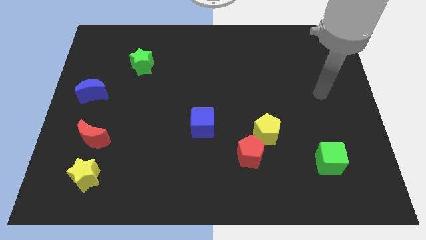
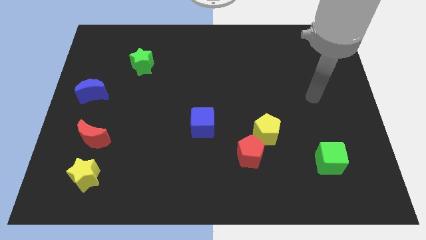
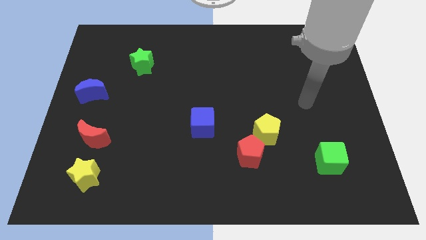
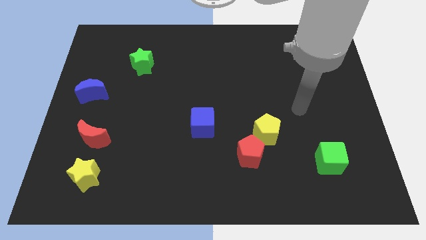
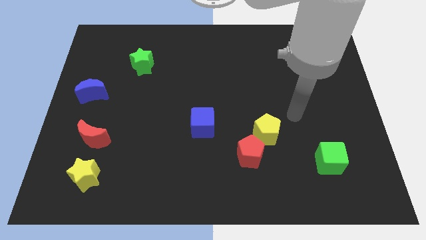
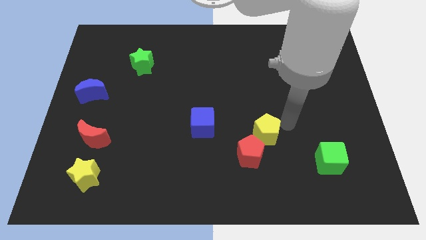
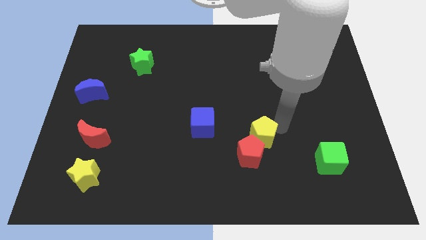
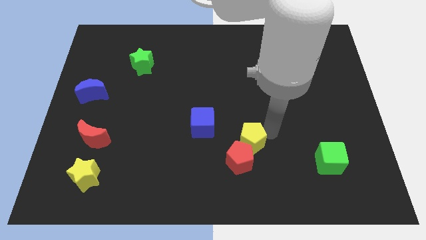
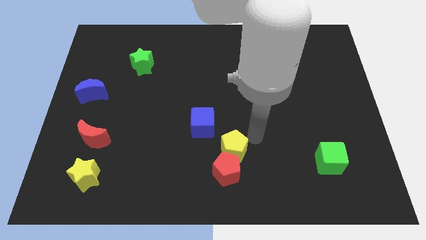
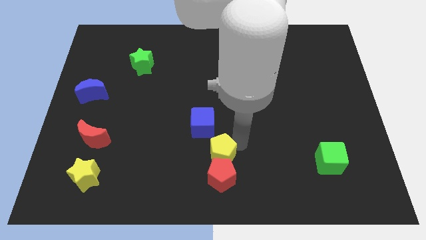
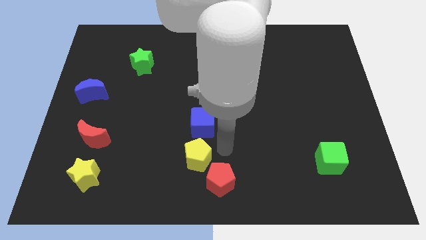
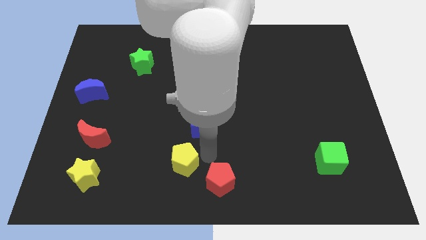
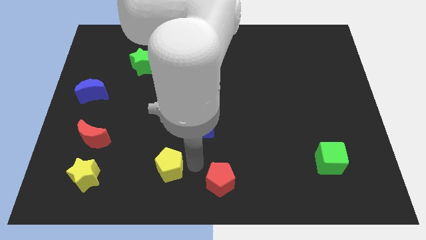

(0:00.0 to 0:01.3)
pull the red pentagon apart from the yellow pentagon

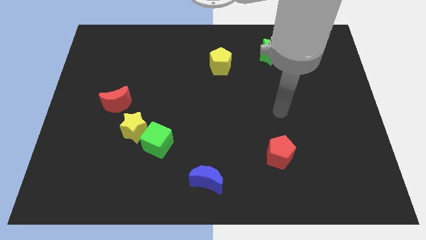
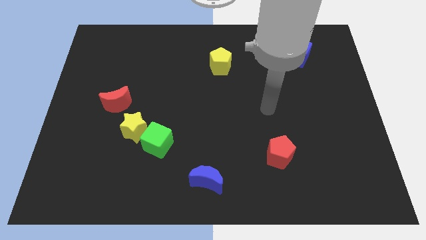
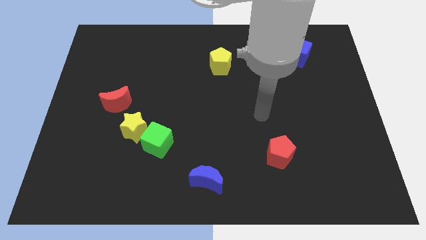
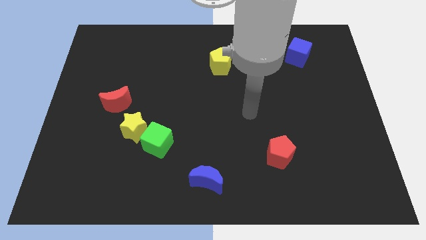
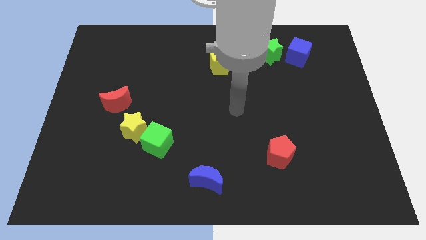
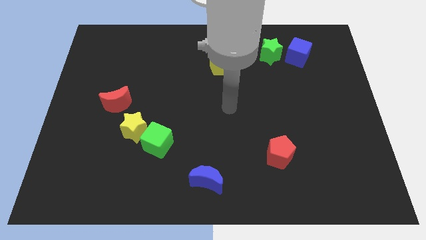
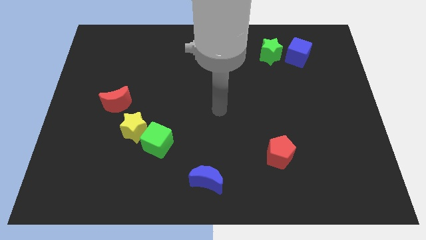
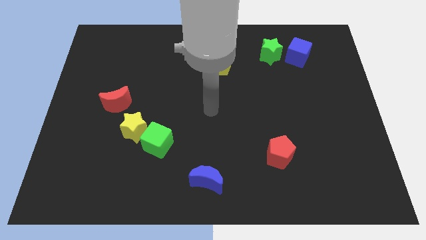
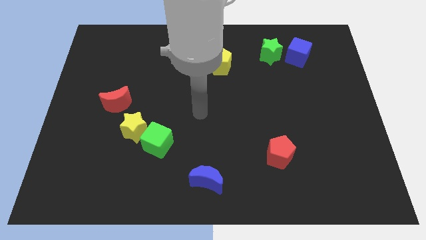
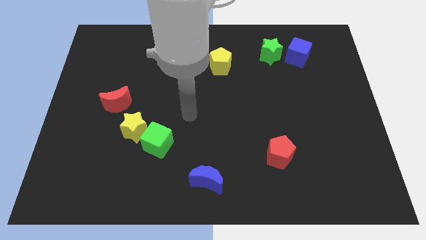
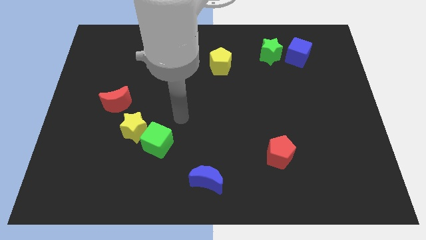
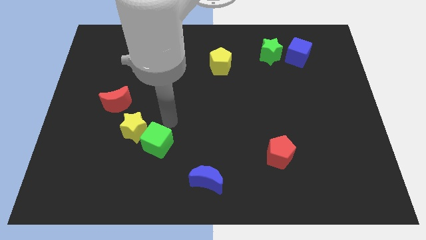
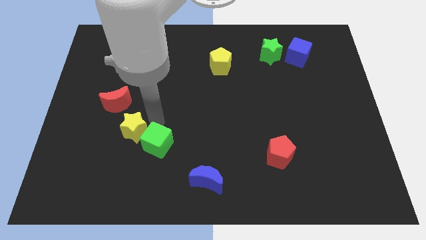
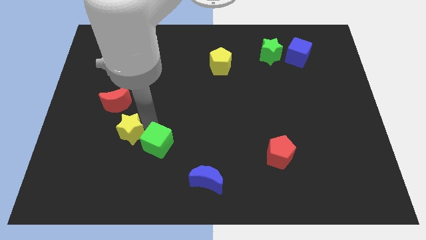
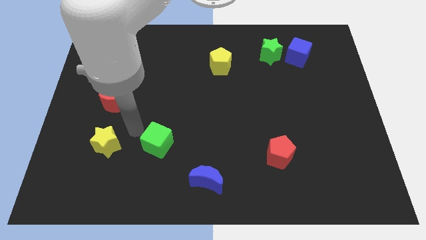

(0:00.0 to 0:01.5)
separate the green cube from the yellow star

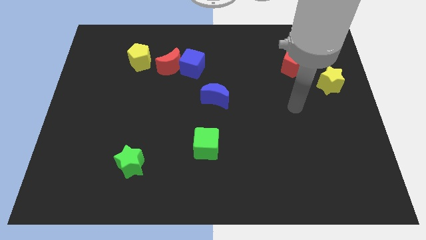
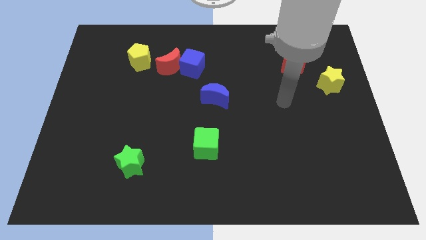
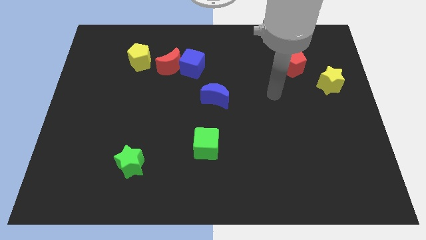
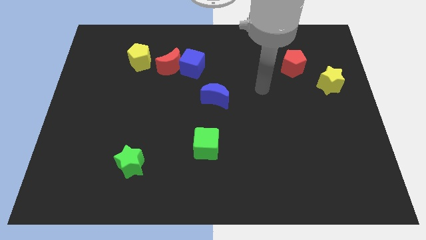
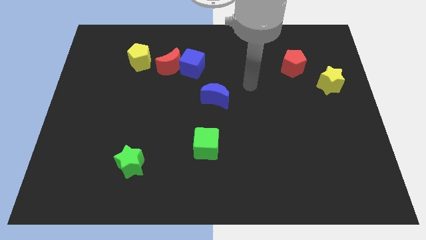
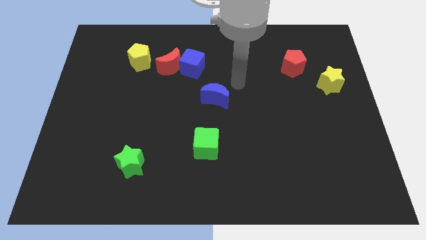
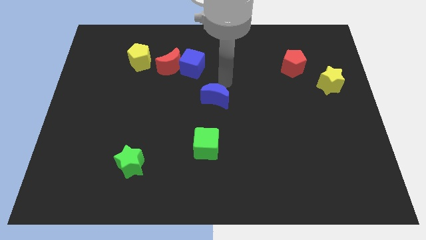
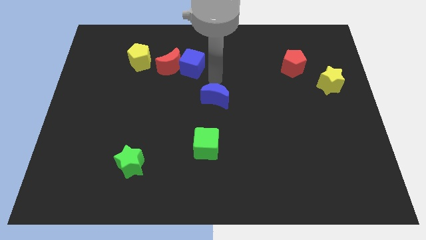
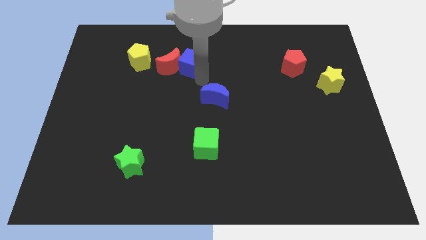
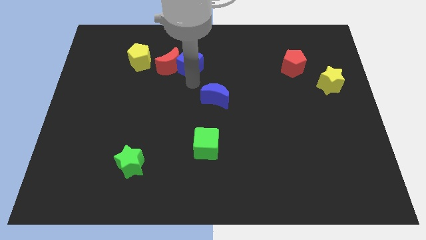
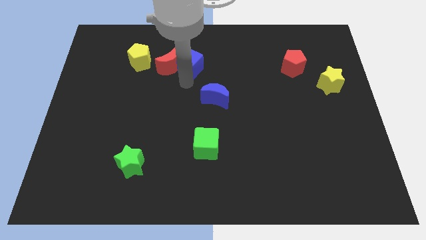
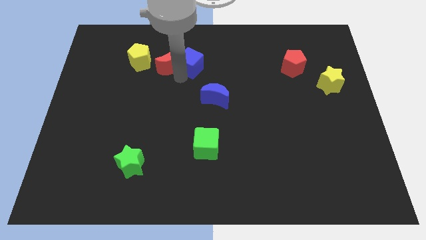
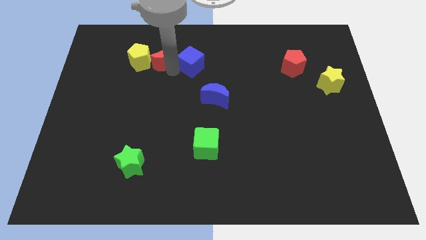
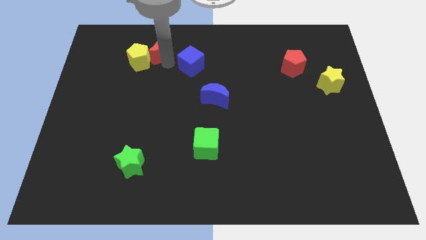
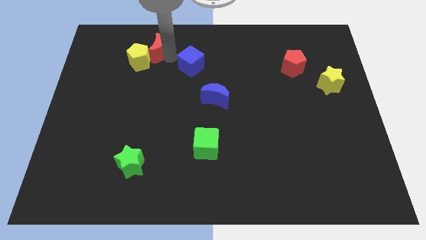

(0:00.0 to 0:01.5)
pull the blue cube apart from the red moon

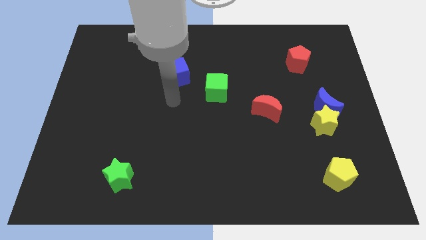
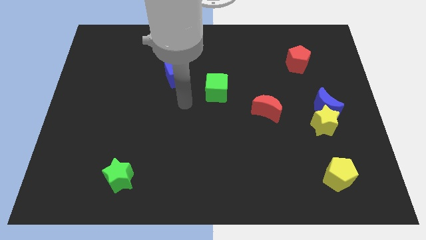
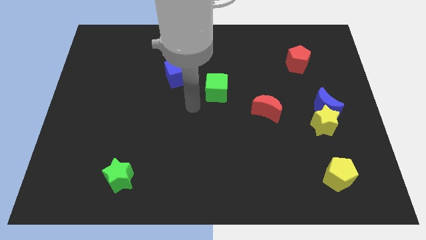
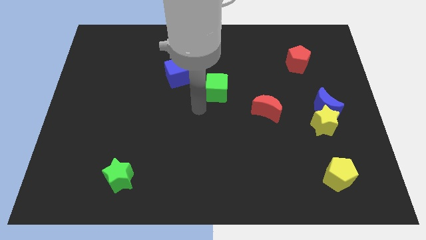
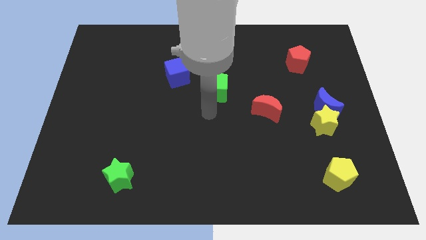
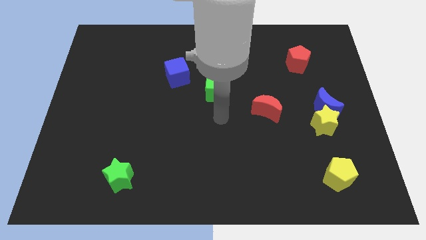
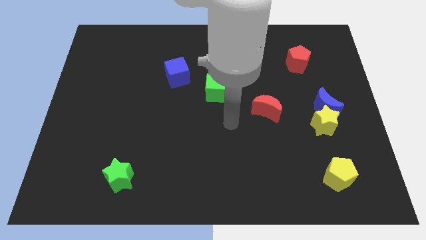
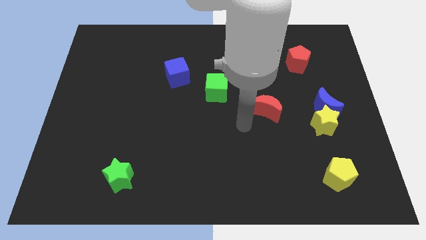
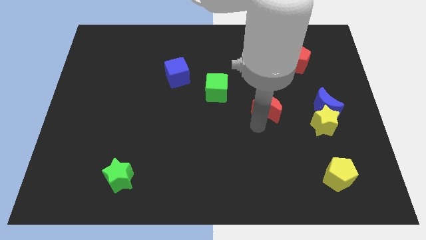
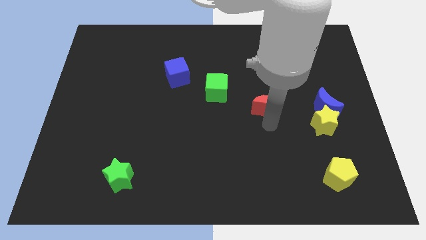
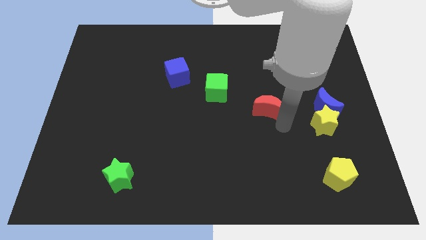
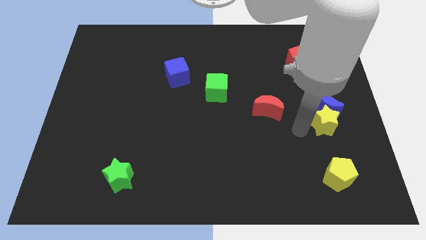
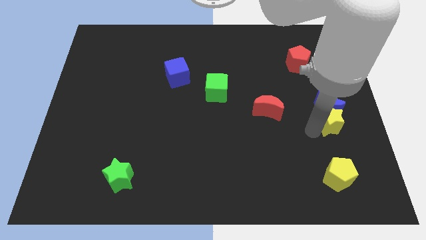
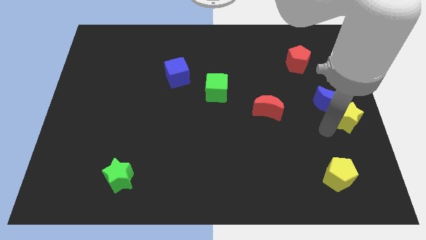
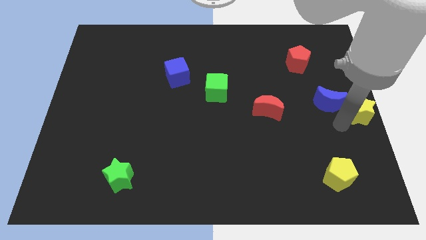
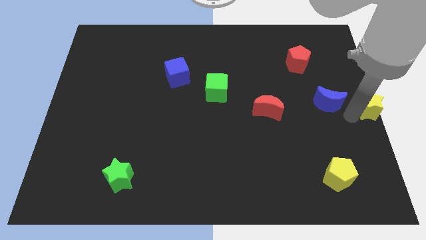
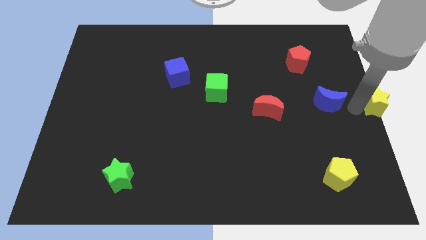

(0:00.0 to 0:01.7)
move the blue moon away from the yellow star

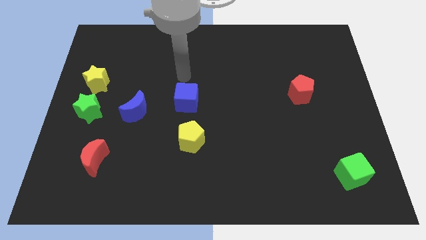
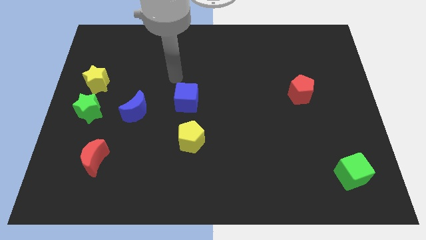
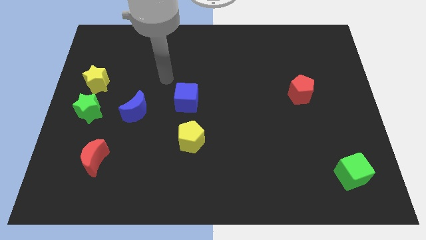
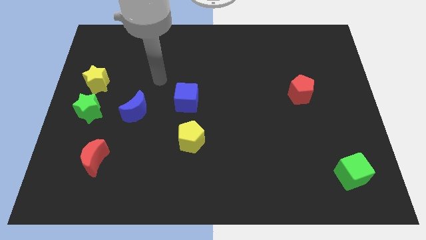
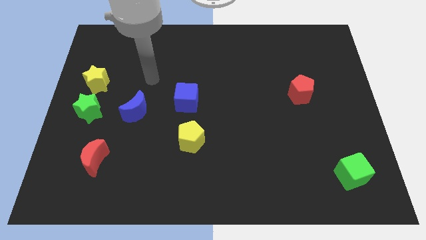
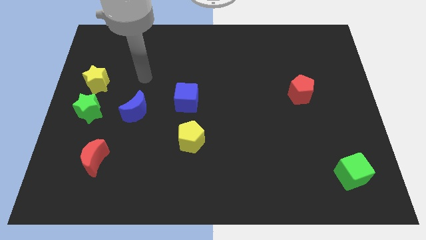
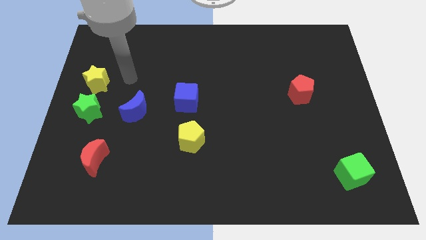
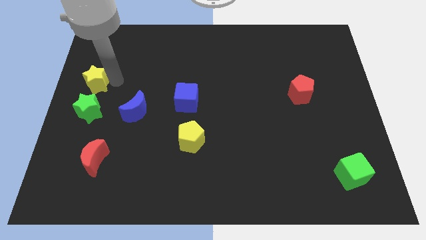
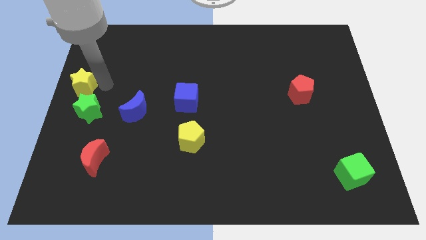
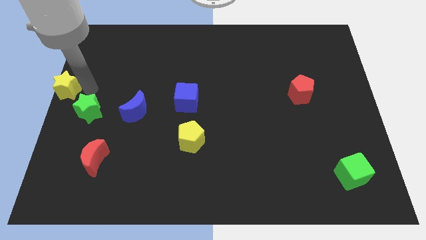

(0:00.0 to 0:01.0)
separate the green star from the yellow star

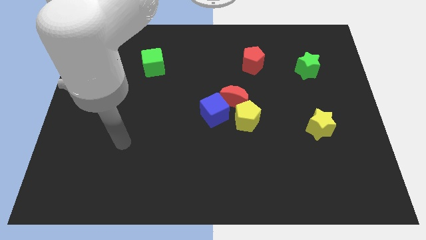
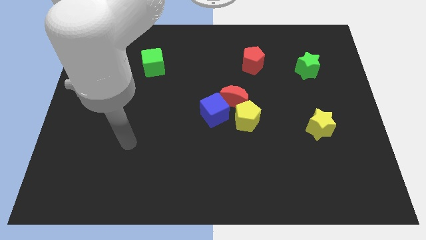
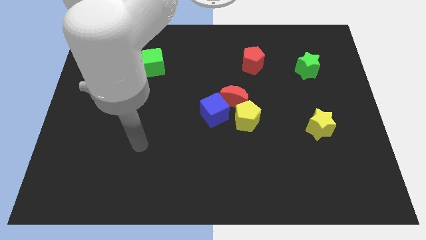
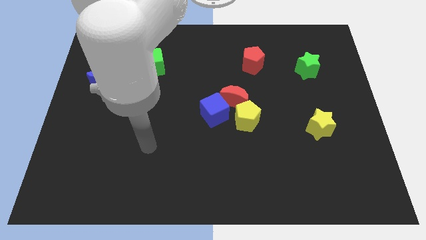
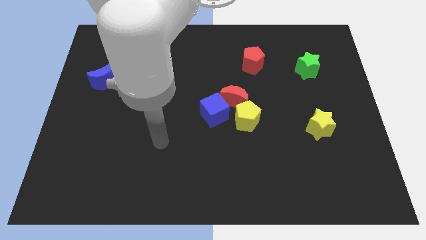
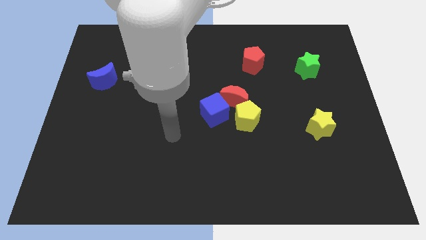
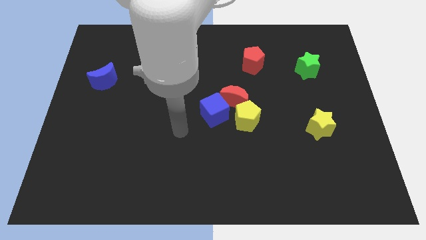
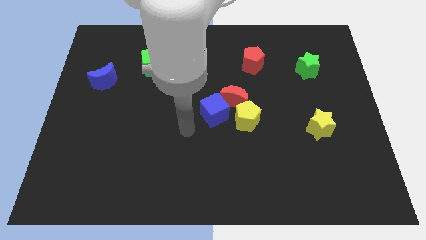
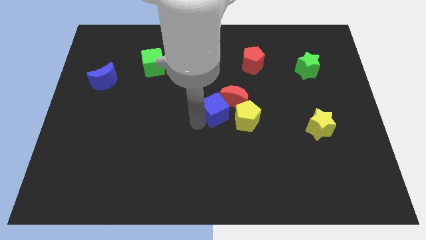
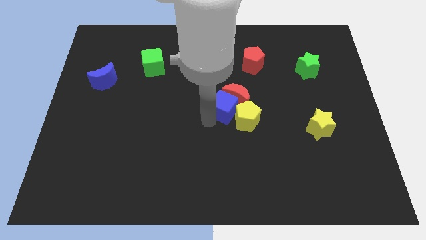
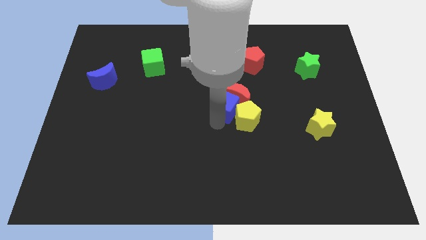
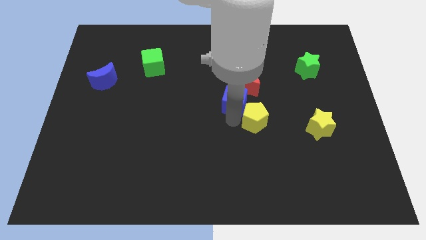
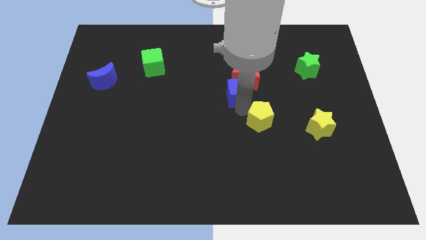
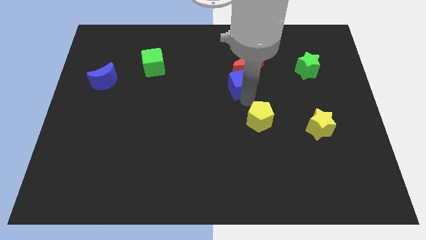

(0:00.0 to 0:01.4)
pull the red moon apart from the yellow pentagon and blue cube

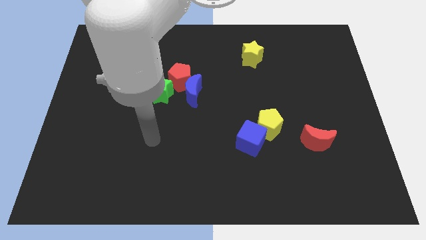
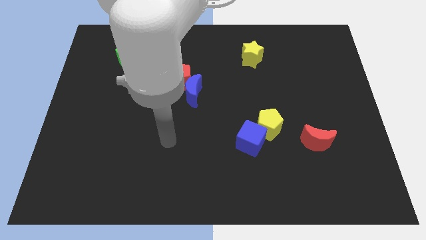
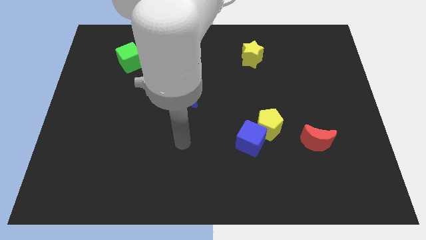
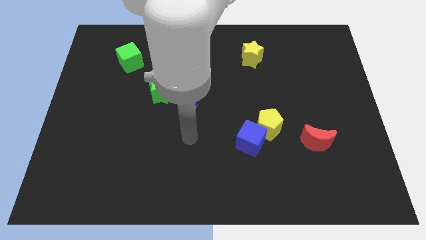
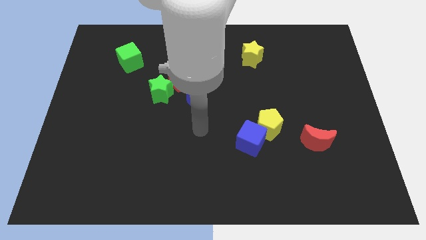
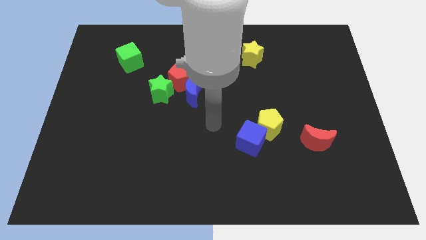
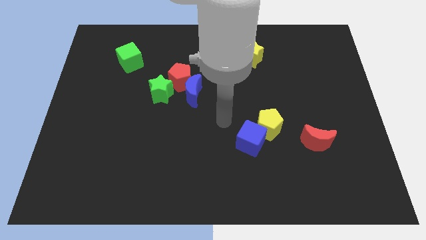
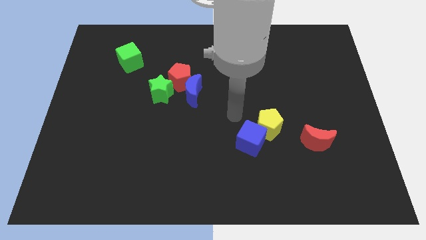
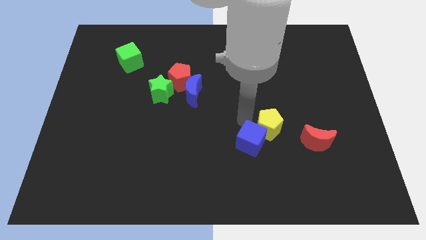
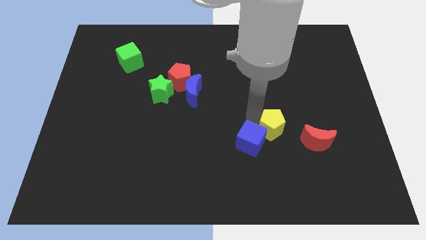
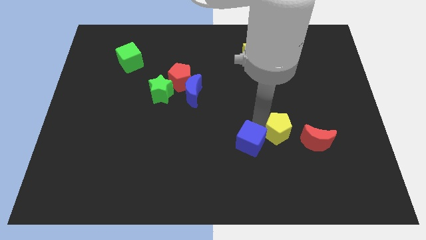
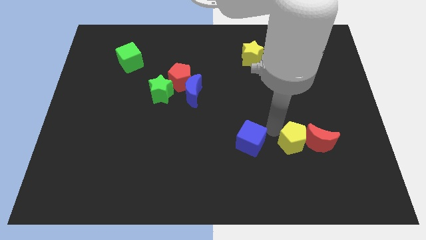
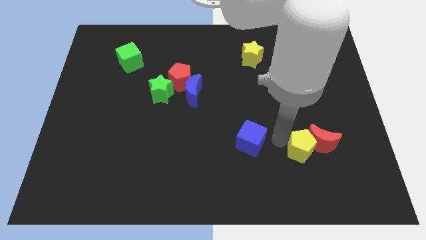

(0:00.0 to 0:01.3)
separate the blue cube from the yellow pentagon
